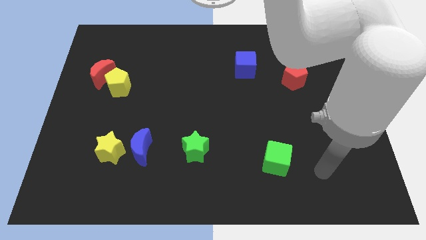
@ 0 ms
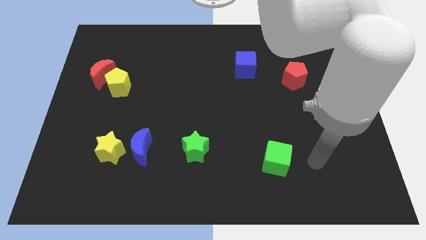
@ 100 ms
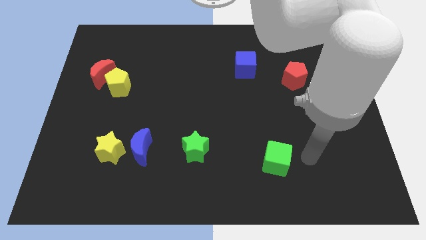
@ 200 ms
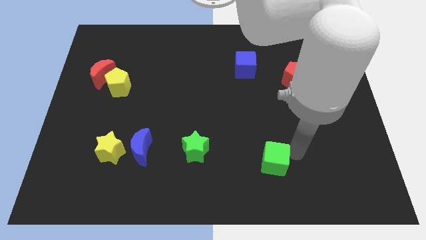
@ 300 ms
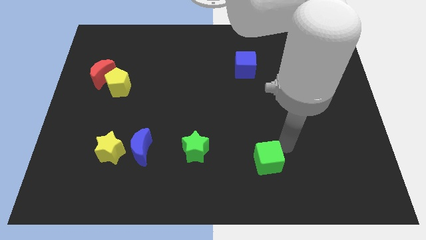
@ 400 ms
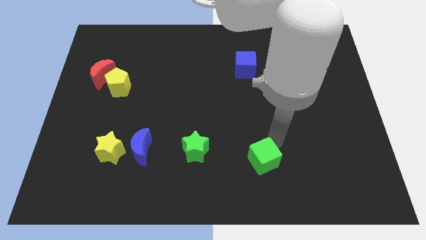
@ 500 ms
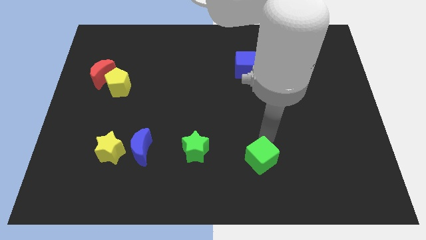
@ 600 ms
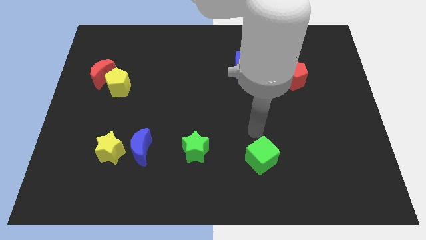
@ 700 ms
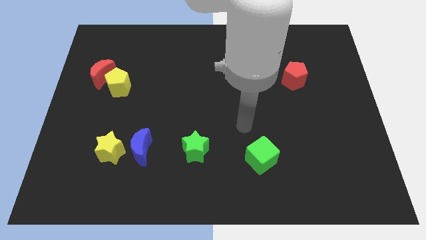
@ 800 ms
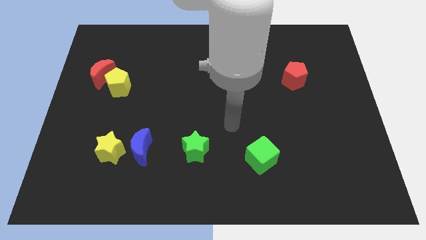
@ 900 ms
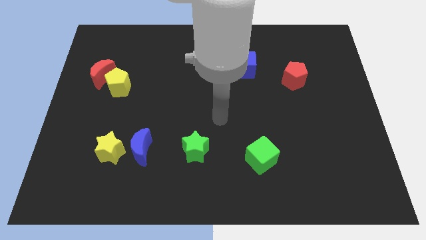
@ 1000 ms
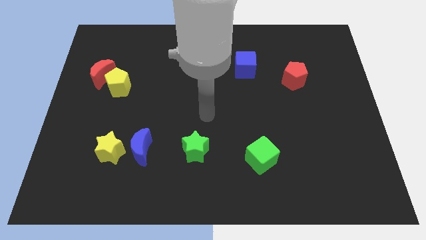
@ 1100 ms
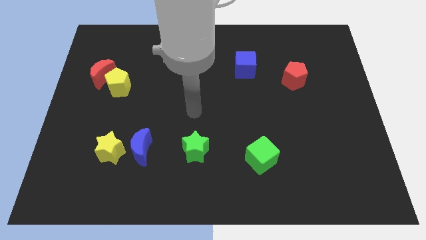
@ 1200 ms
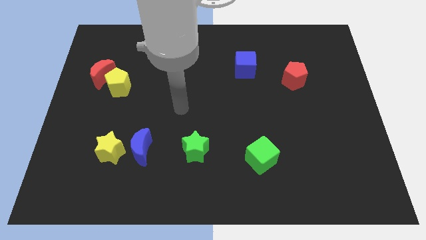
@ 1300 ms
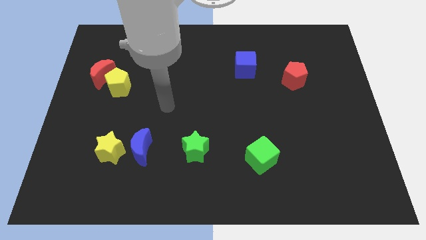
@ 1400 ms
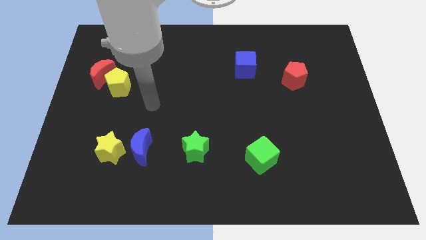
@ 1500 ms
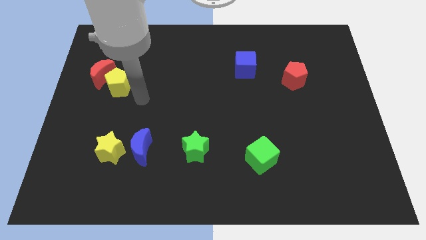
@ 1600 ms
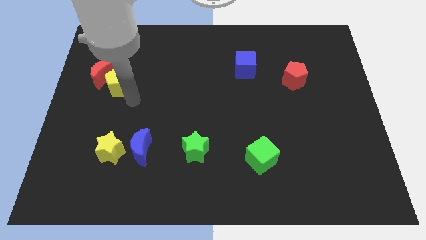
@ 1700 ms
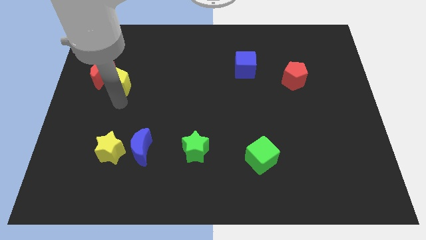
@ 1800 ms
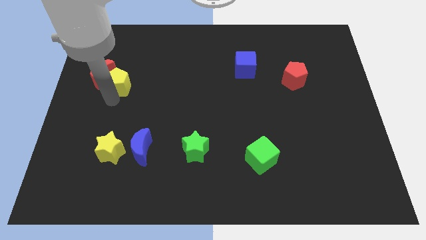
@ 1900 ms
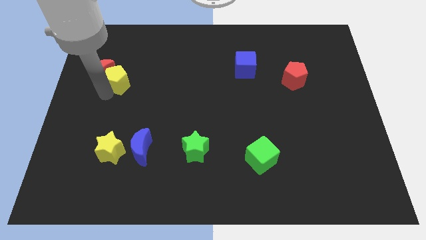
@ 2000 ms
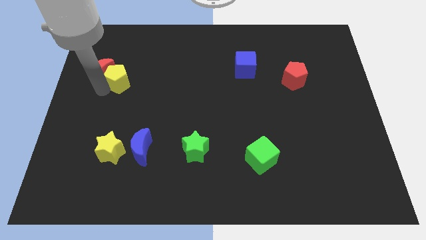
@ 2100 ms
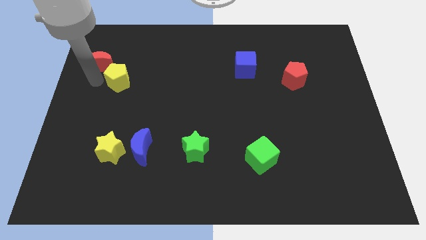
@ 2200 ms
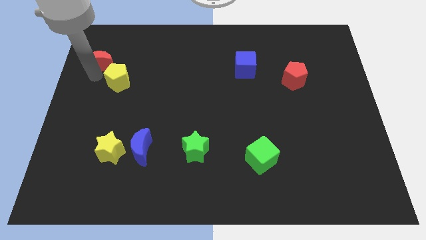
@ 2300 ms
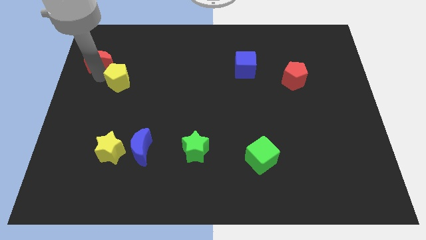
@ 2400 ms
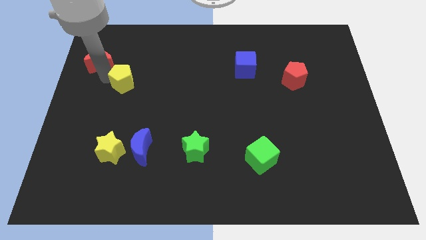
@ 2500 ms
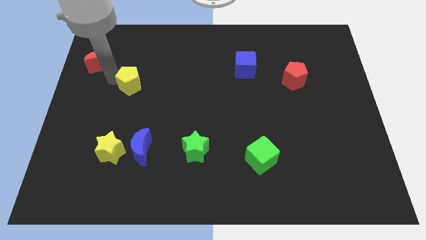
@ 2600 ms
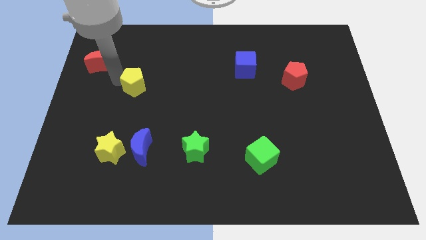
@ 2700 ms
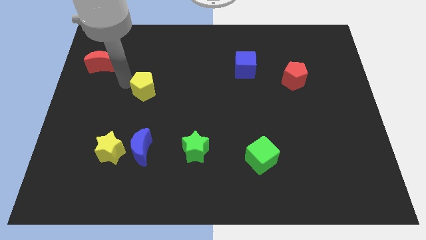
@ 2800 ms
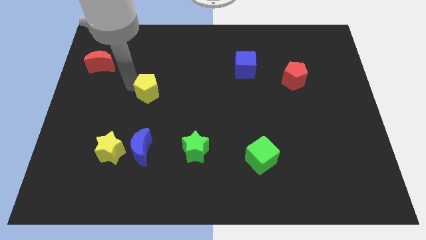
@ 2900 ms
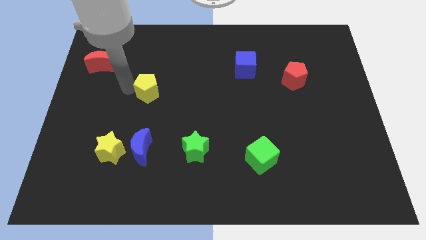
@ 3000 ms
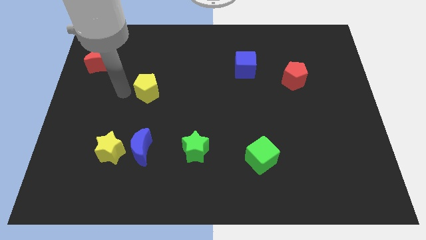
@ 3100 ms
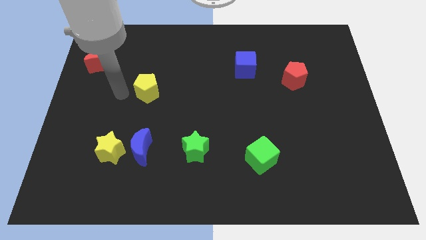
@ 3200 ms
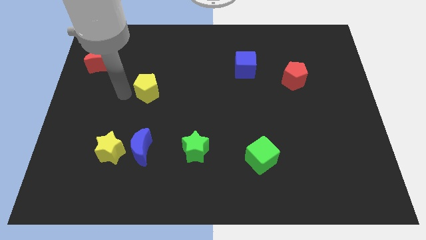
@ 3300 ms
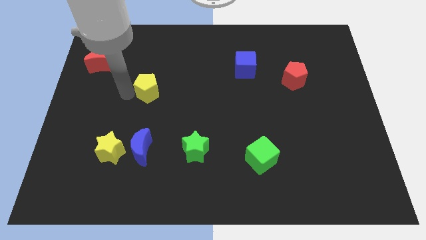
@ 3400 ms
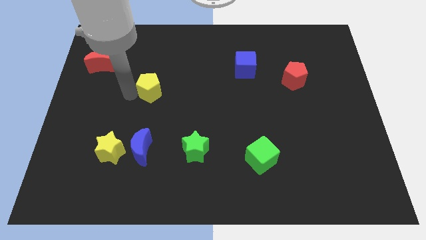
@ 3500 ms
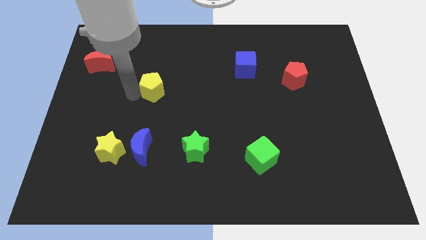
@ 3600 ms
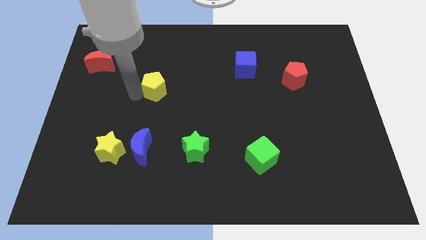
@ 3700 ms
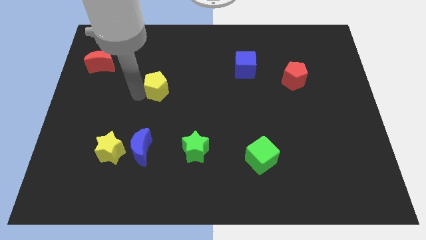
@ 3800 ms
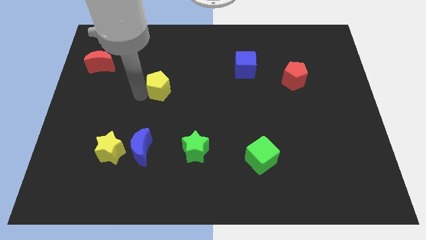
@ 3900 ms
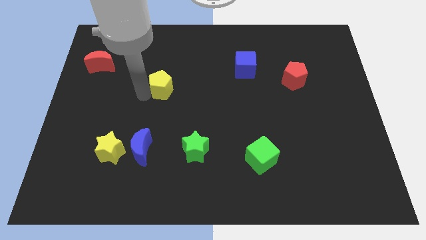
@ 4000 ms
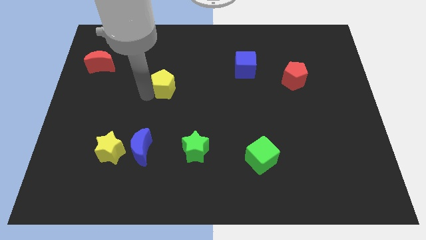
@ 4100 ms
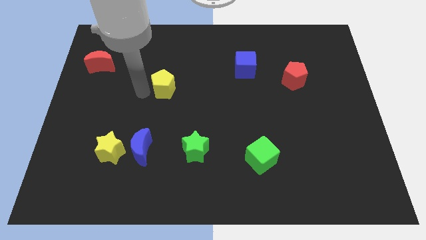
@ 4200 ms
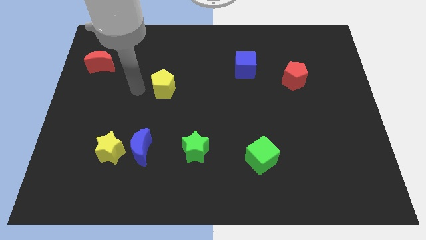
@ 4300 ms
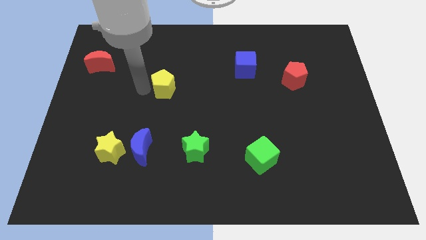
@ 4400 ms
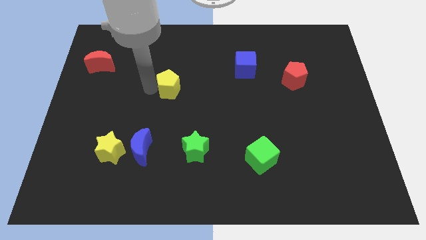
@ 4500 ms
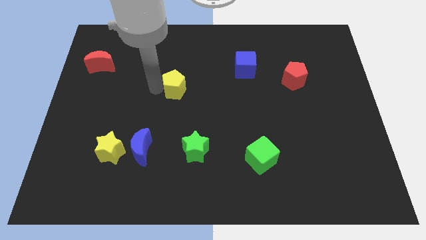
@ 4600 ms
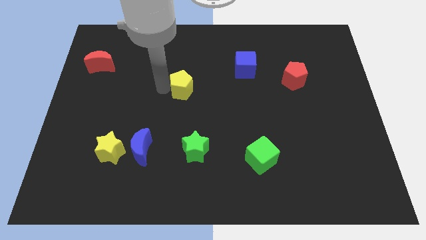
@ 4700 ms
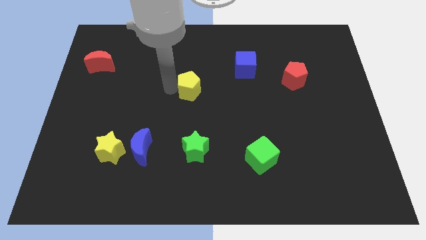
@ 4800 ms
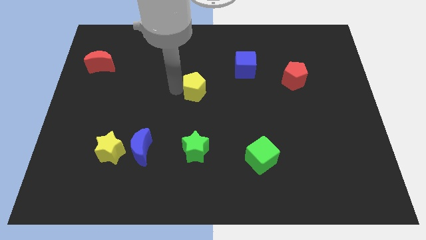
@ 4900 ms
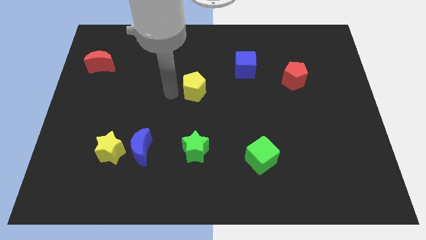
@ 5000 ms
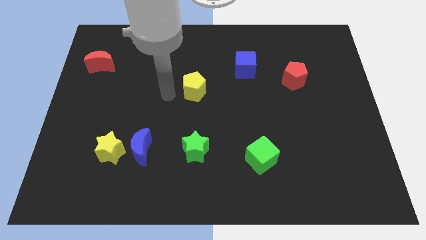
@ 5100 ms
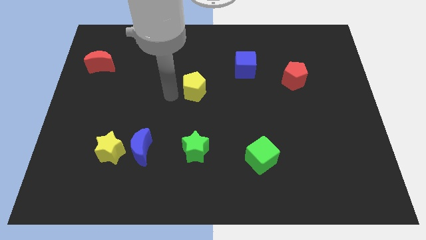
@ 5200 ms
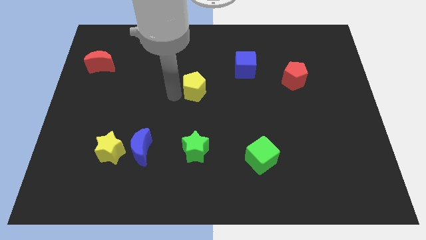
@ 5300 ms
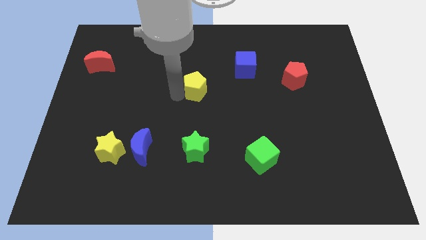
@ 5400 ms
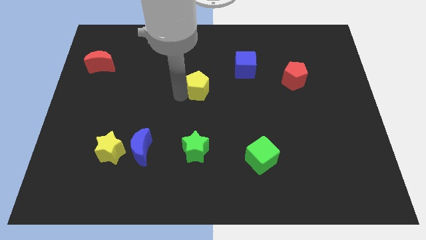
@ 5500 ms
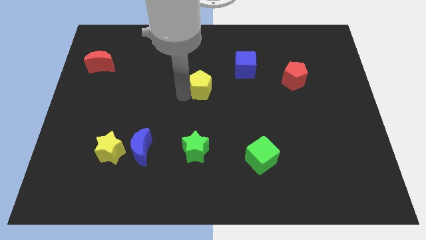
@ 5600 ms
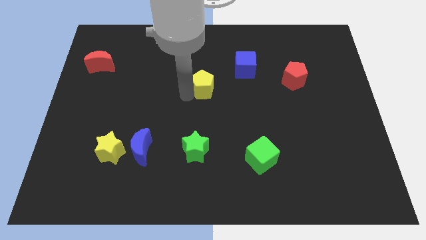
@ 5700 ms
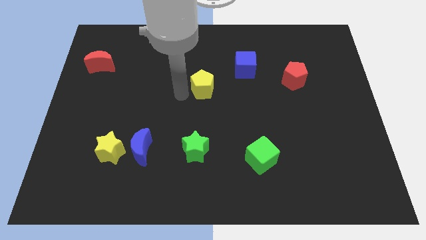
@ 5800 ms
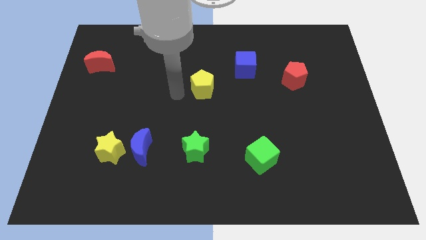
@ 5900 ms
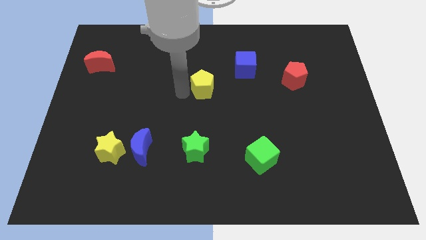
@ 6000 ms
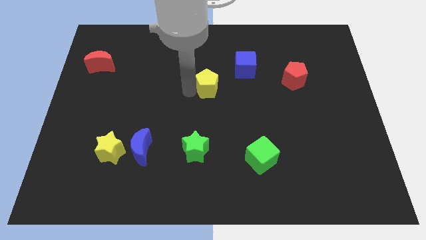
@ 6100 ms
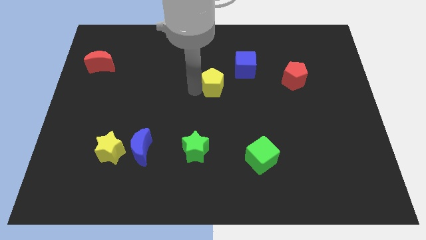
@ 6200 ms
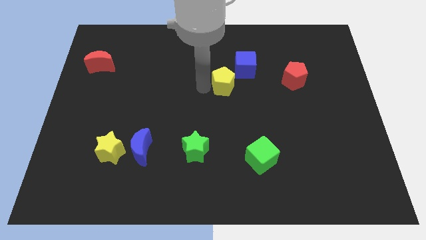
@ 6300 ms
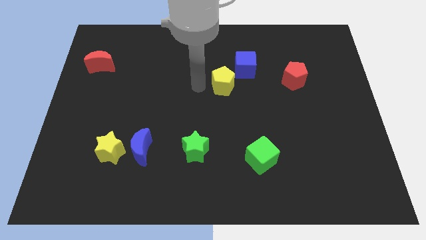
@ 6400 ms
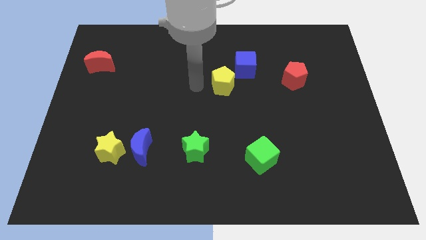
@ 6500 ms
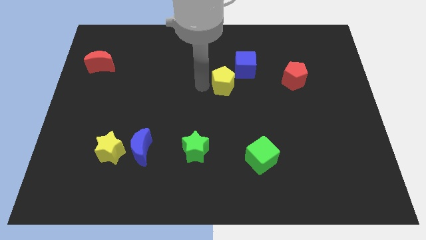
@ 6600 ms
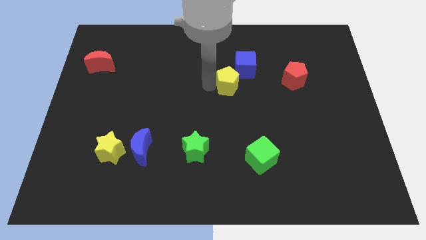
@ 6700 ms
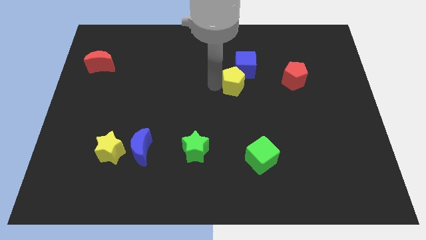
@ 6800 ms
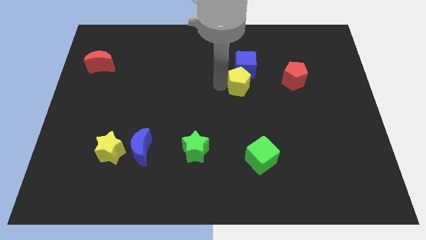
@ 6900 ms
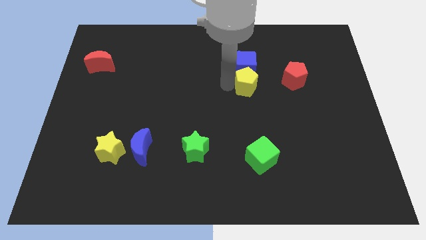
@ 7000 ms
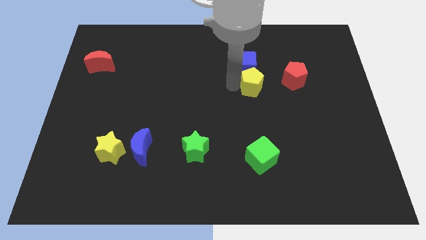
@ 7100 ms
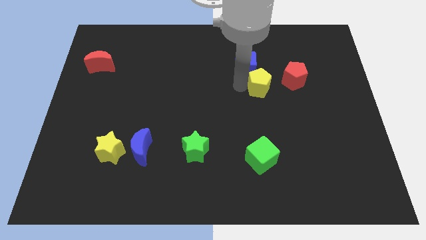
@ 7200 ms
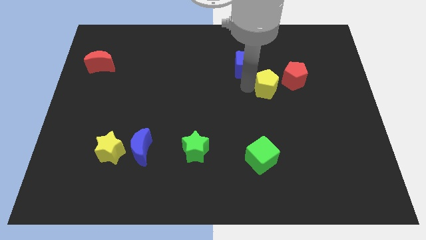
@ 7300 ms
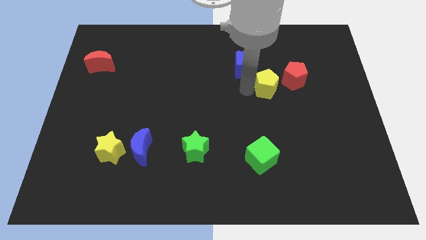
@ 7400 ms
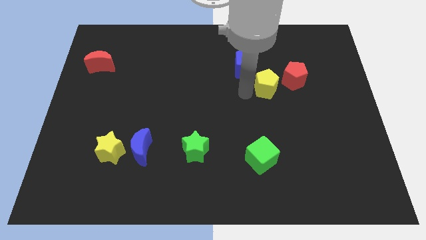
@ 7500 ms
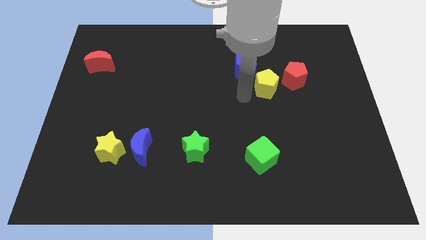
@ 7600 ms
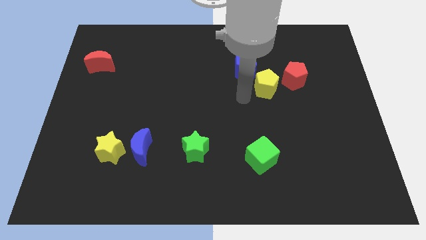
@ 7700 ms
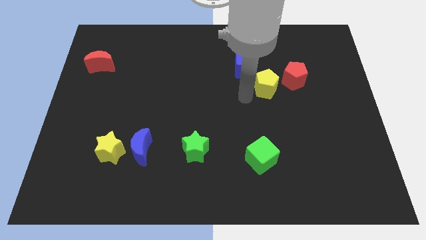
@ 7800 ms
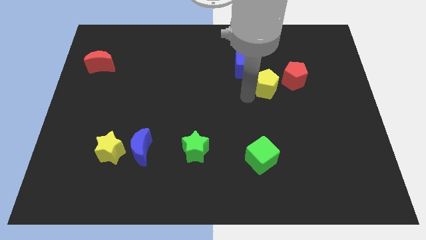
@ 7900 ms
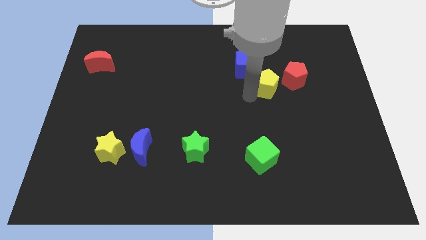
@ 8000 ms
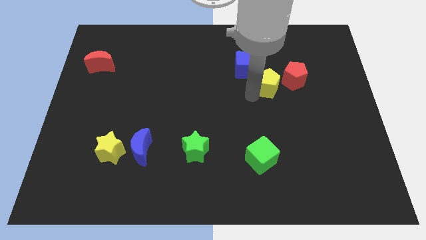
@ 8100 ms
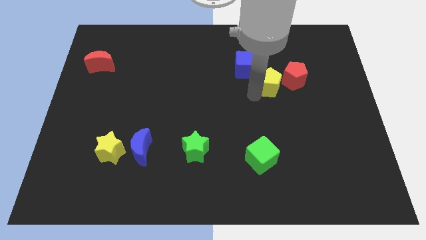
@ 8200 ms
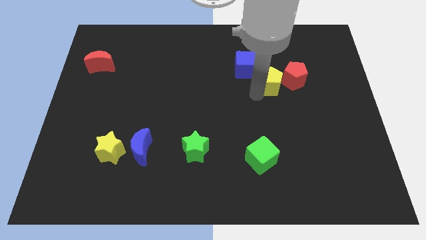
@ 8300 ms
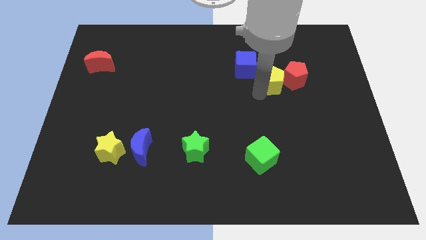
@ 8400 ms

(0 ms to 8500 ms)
move the yellow pentagon towards the red pentagon
